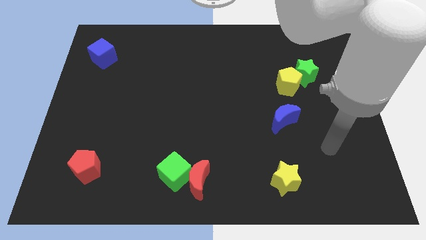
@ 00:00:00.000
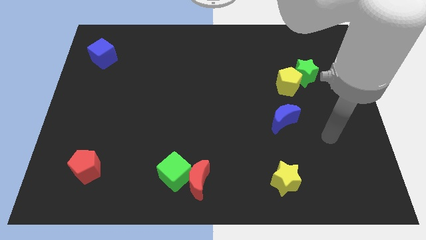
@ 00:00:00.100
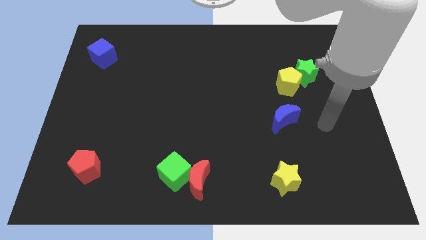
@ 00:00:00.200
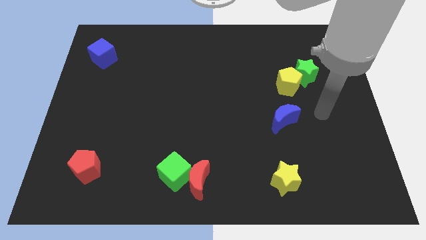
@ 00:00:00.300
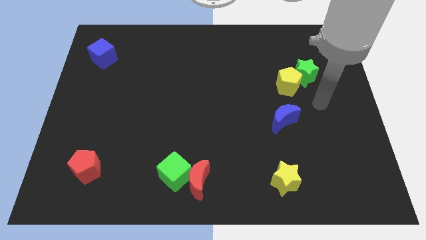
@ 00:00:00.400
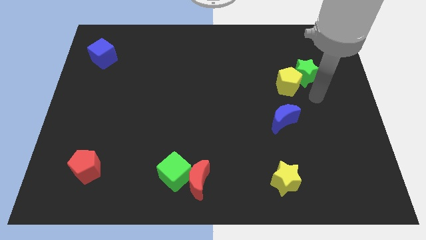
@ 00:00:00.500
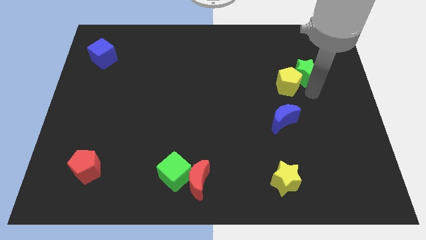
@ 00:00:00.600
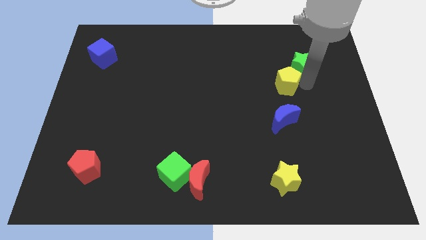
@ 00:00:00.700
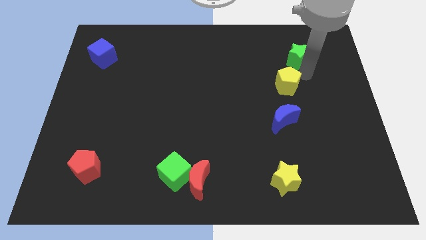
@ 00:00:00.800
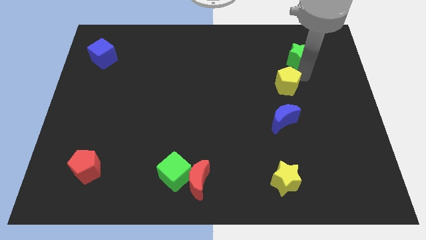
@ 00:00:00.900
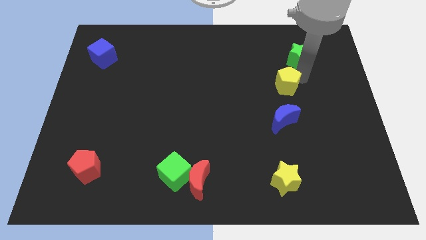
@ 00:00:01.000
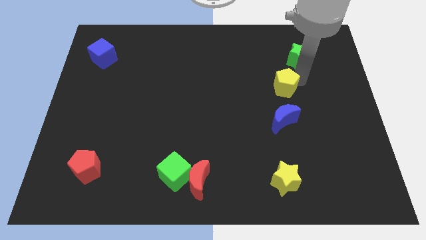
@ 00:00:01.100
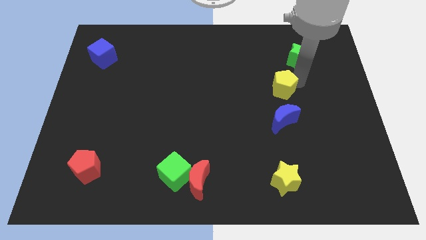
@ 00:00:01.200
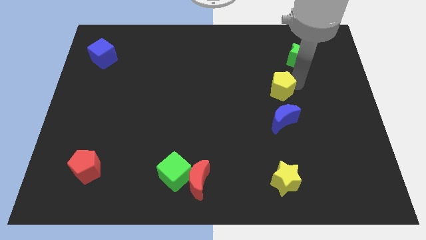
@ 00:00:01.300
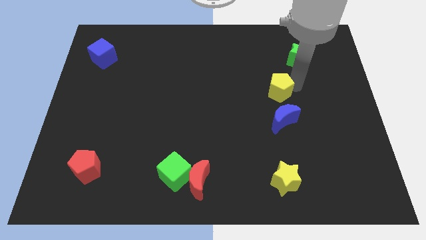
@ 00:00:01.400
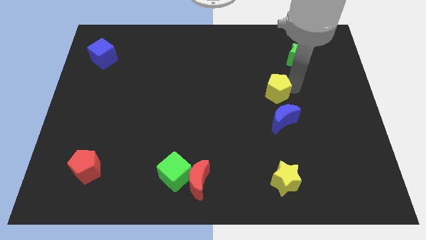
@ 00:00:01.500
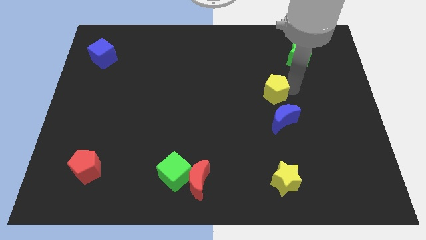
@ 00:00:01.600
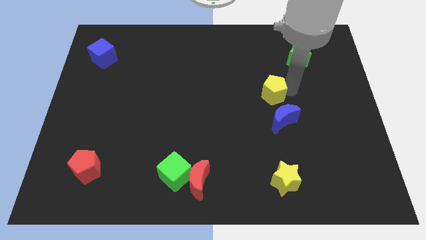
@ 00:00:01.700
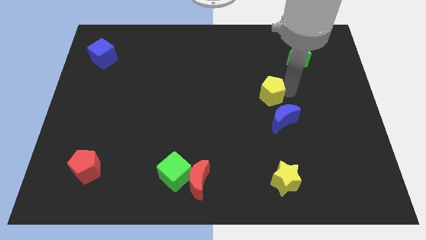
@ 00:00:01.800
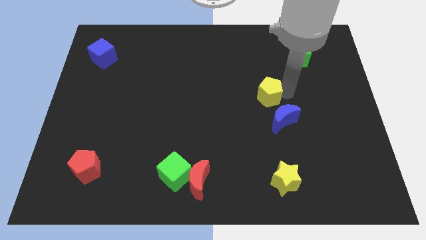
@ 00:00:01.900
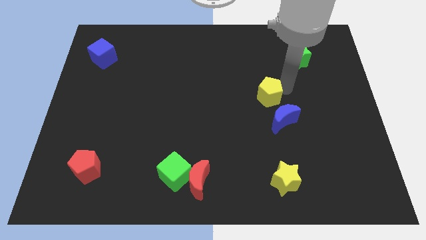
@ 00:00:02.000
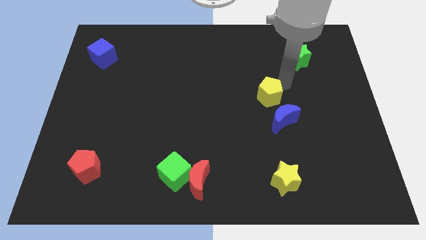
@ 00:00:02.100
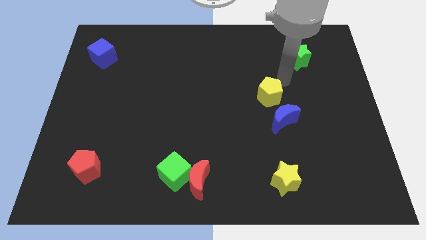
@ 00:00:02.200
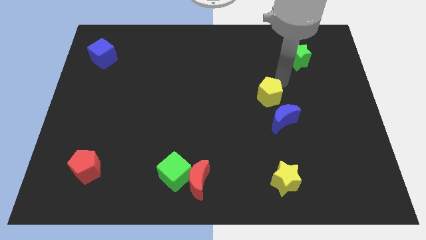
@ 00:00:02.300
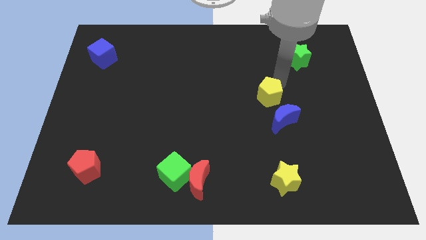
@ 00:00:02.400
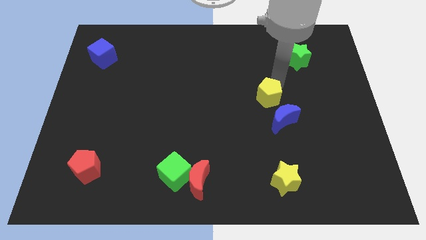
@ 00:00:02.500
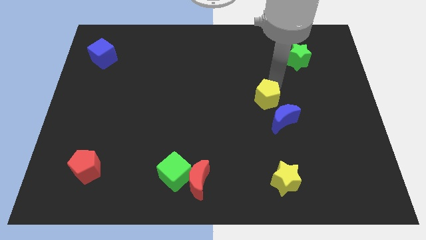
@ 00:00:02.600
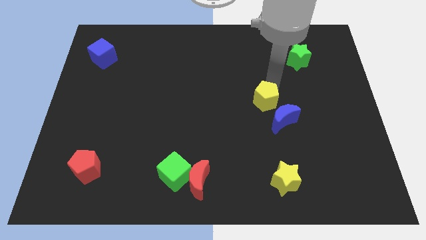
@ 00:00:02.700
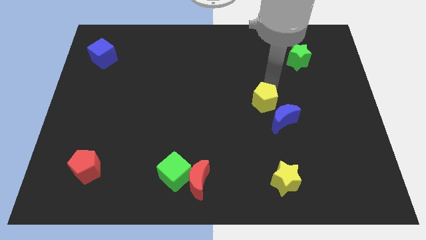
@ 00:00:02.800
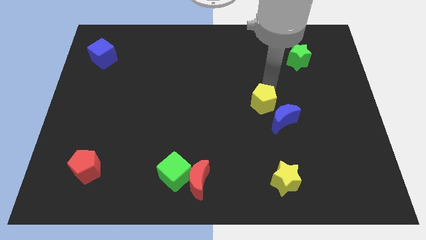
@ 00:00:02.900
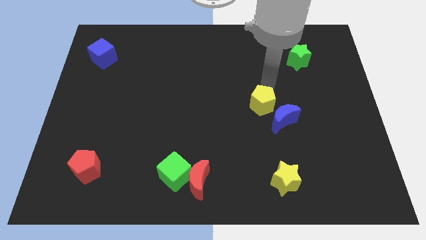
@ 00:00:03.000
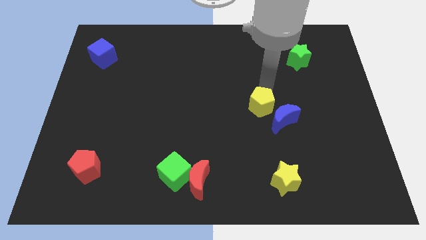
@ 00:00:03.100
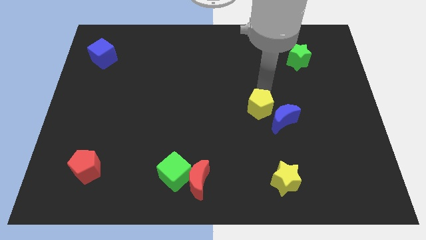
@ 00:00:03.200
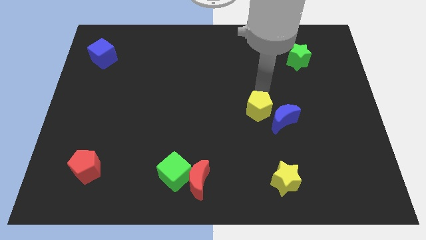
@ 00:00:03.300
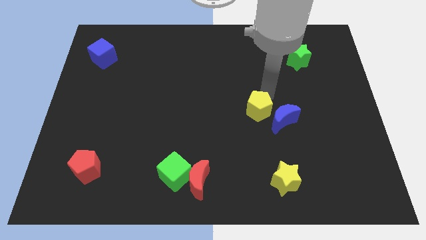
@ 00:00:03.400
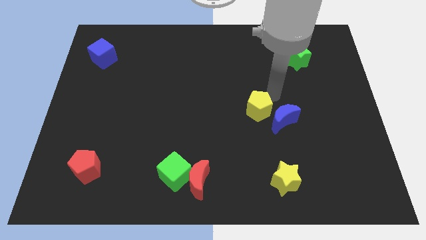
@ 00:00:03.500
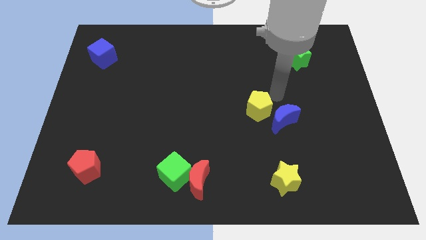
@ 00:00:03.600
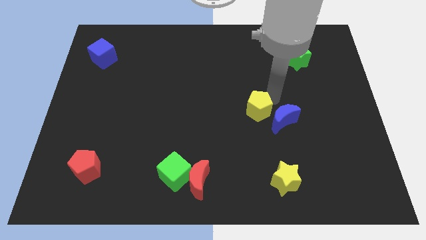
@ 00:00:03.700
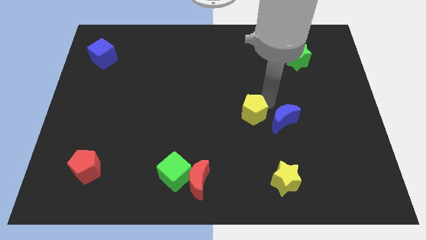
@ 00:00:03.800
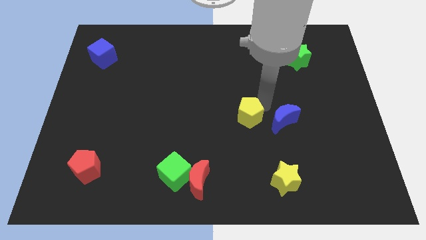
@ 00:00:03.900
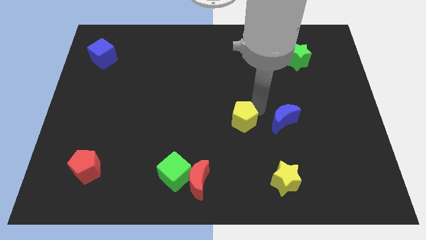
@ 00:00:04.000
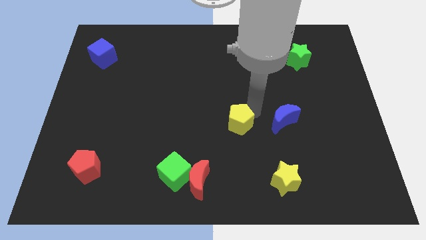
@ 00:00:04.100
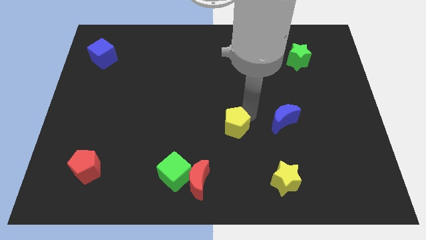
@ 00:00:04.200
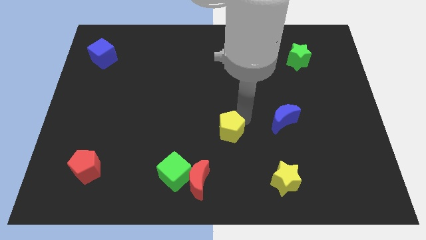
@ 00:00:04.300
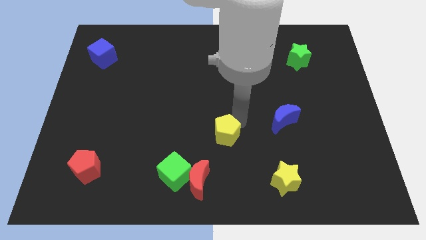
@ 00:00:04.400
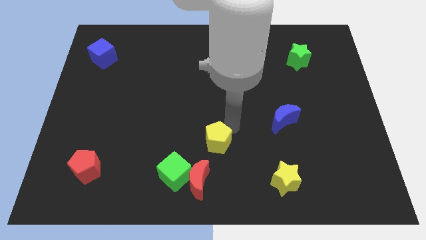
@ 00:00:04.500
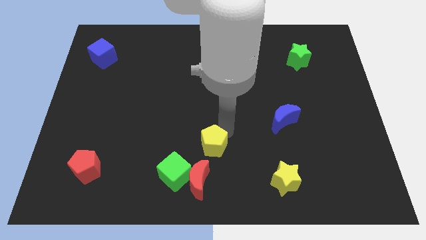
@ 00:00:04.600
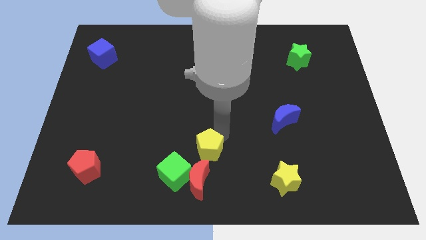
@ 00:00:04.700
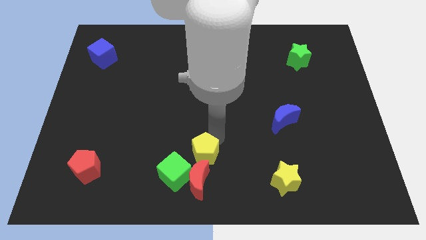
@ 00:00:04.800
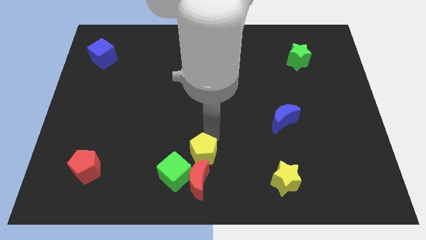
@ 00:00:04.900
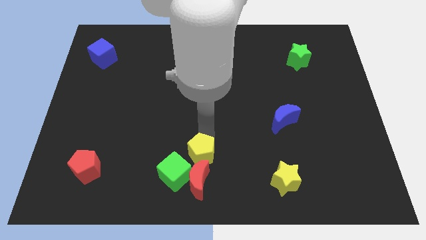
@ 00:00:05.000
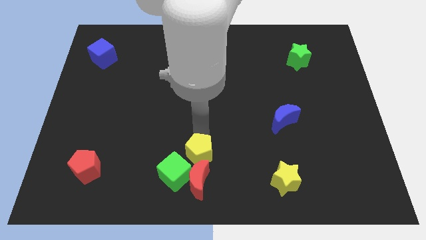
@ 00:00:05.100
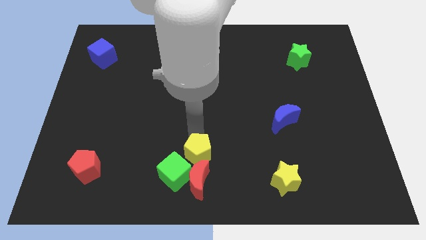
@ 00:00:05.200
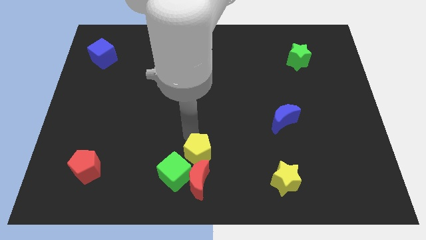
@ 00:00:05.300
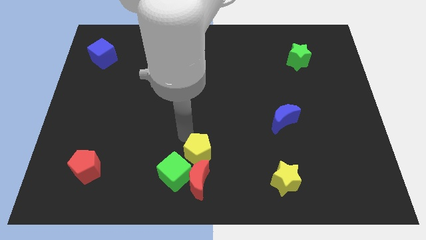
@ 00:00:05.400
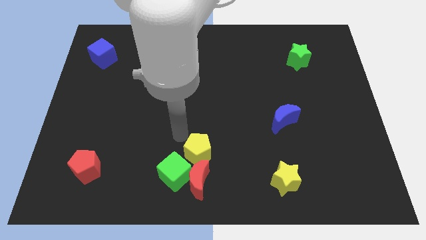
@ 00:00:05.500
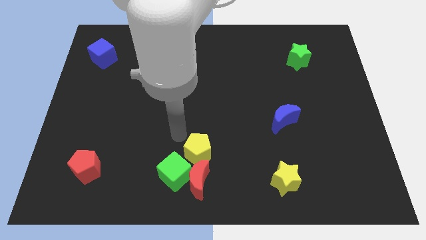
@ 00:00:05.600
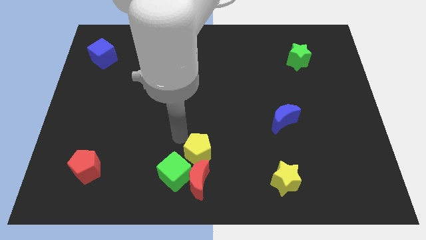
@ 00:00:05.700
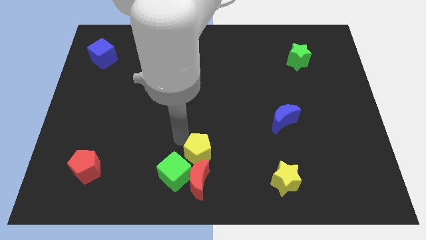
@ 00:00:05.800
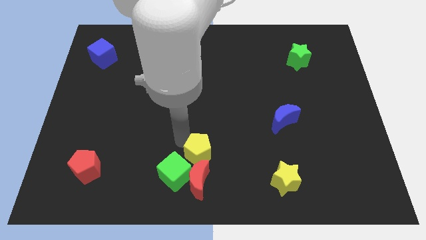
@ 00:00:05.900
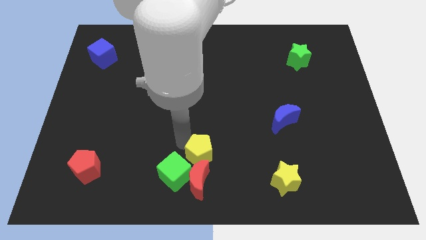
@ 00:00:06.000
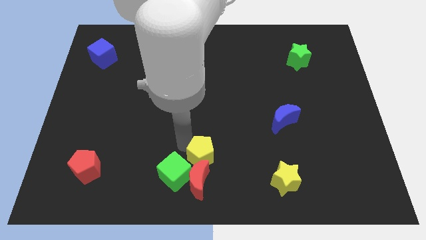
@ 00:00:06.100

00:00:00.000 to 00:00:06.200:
put the yellow pentagon close to the red moon
